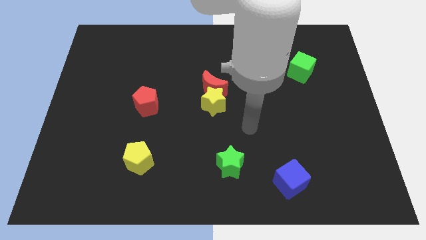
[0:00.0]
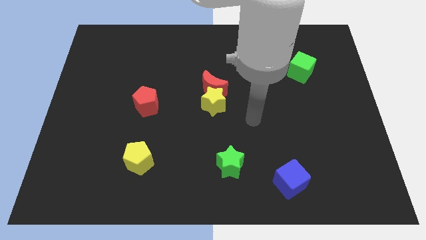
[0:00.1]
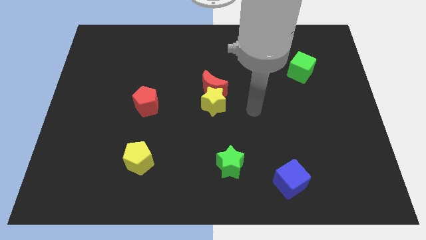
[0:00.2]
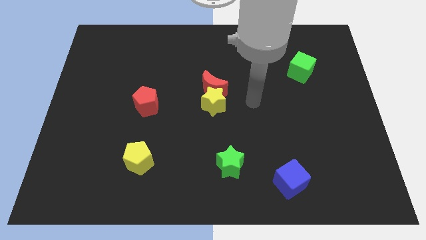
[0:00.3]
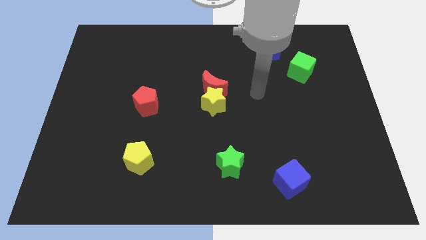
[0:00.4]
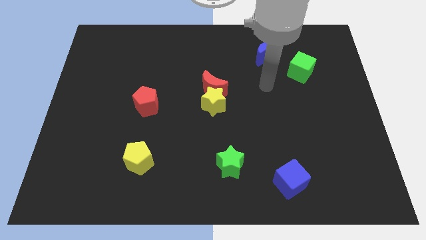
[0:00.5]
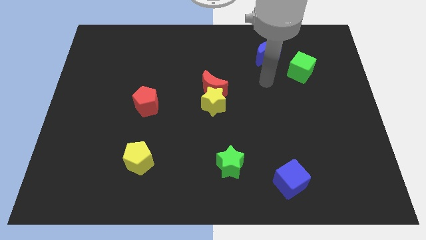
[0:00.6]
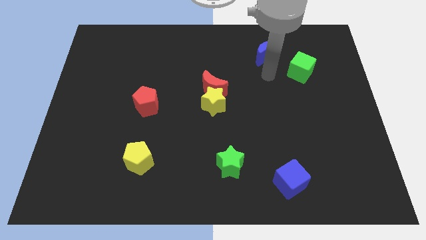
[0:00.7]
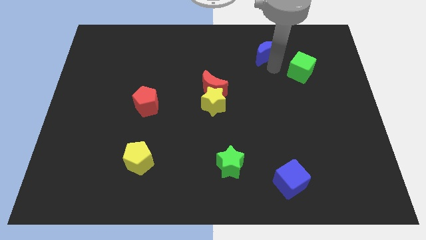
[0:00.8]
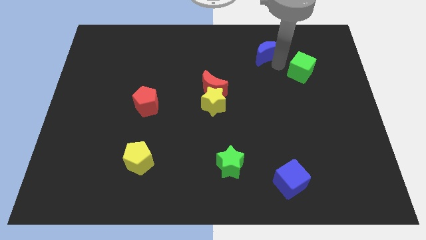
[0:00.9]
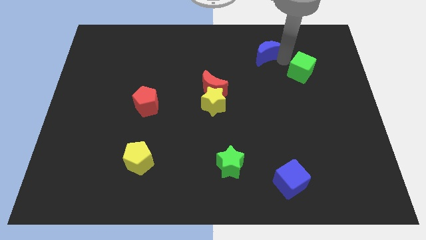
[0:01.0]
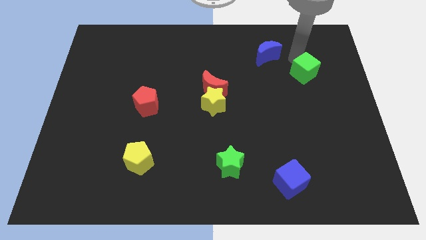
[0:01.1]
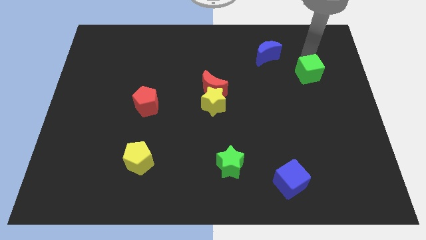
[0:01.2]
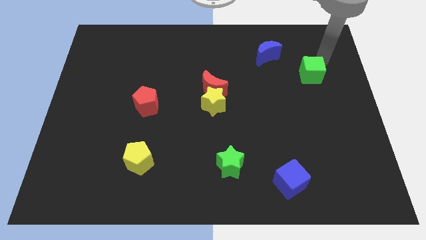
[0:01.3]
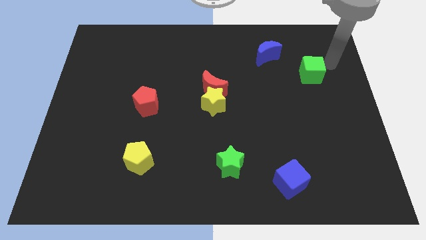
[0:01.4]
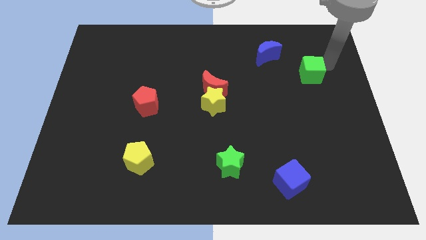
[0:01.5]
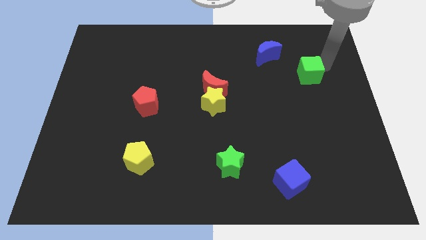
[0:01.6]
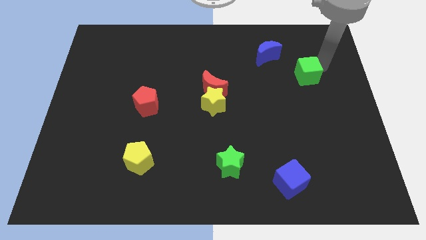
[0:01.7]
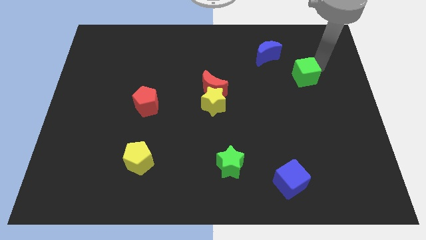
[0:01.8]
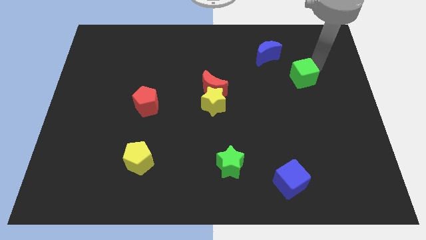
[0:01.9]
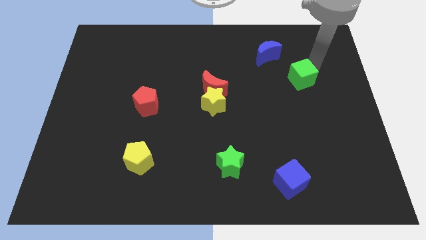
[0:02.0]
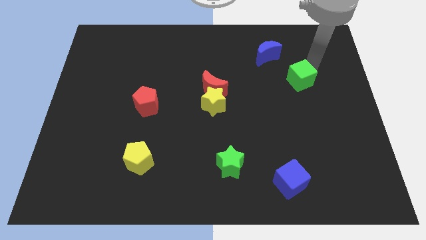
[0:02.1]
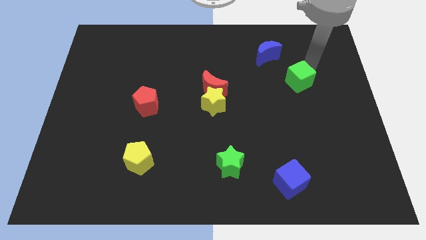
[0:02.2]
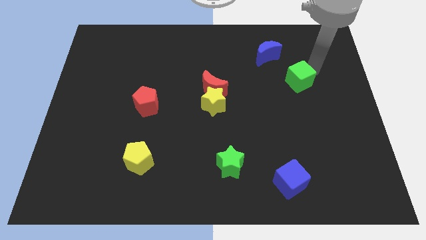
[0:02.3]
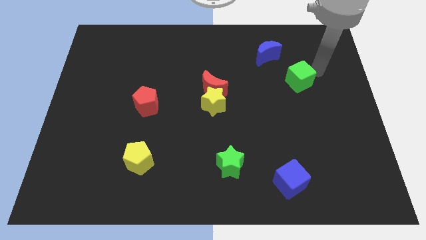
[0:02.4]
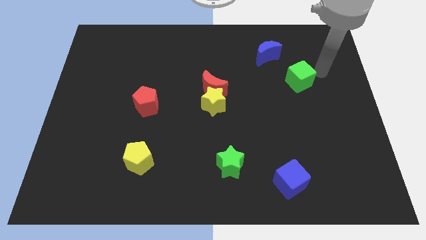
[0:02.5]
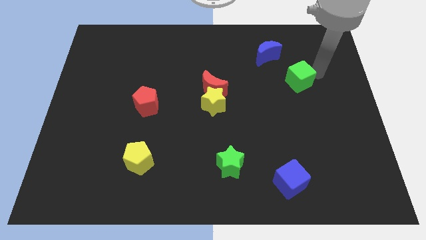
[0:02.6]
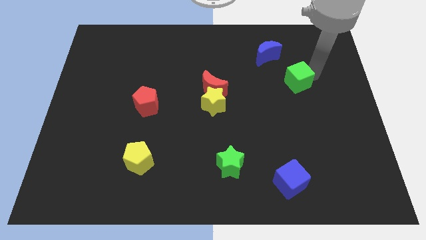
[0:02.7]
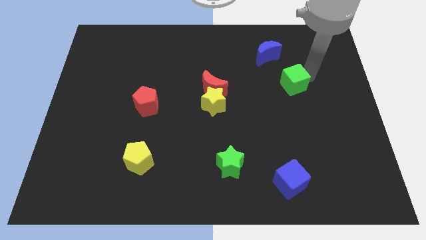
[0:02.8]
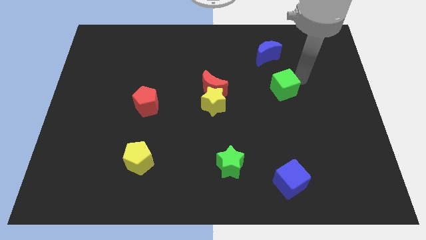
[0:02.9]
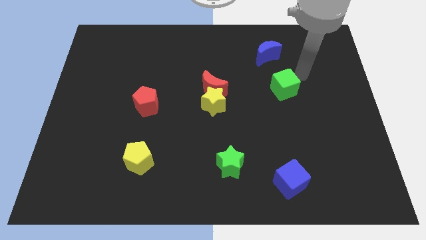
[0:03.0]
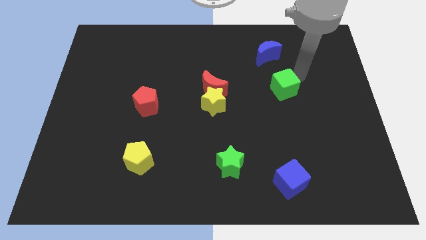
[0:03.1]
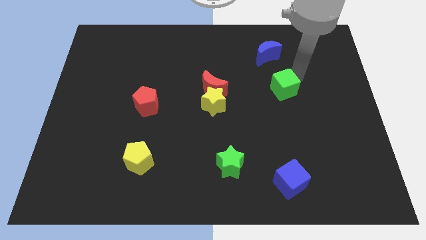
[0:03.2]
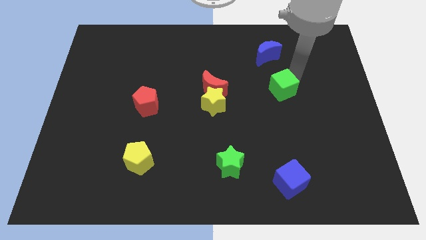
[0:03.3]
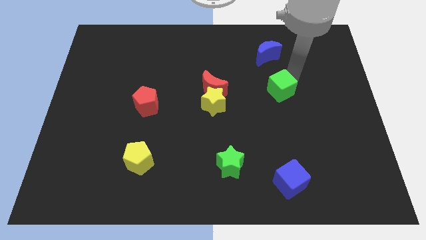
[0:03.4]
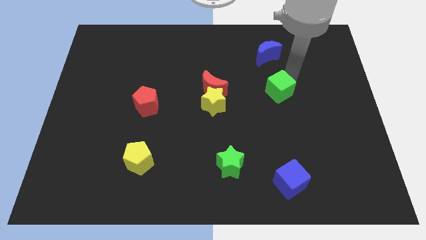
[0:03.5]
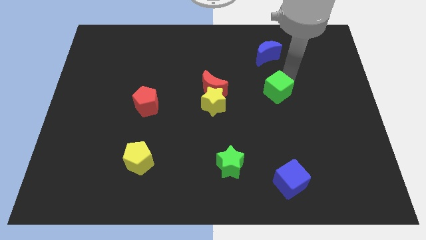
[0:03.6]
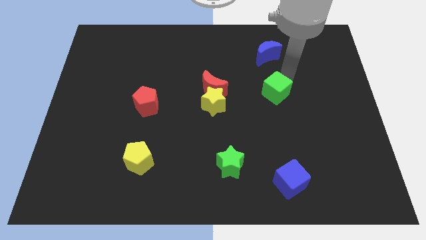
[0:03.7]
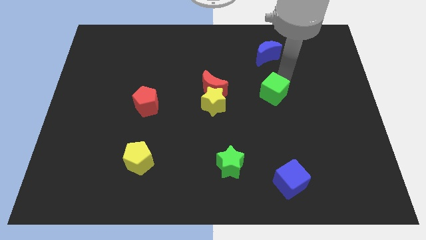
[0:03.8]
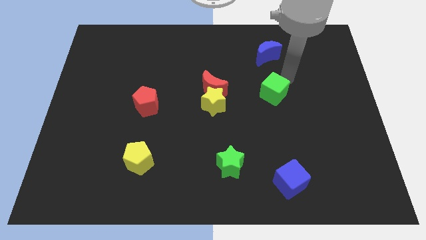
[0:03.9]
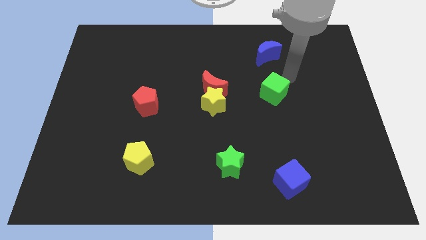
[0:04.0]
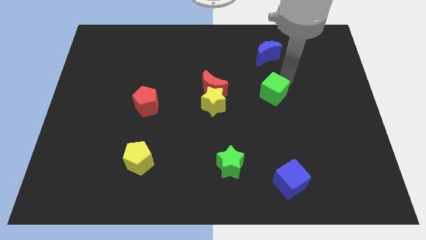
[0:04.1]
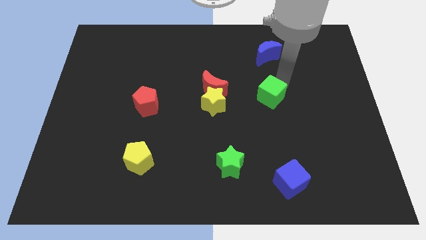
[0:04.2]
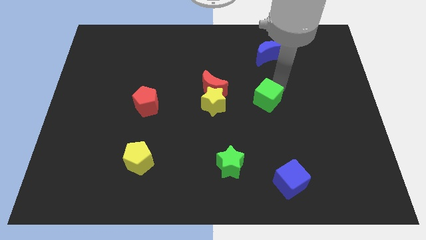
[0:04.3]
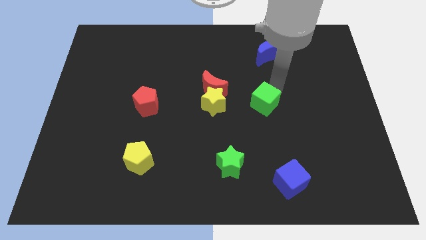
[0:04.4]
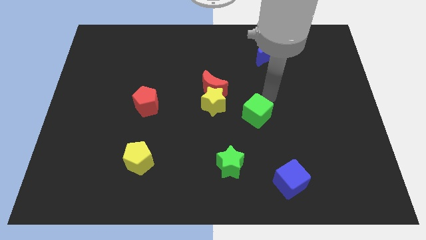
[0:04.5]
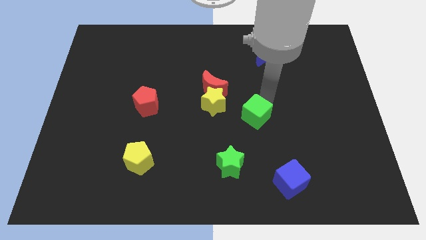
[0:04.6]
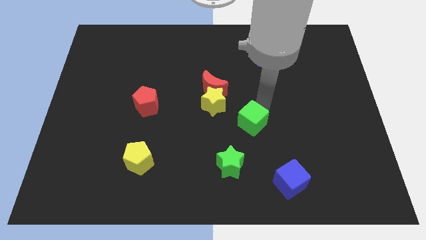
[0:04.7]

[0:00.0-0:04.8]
push the green cube downwards and then to the left

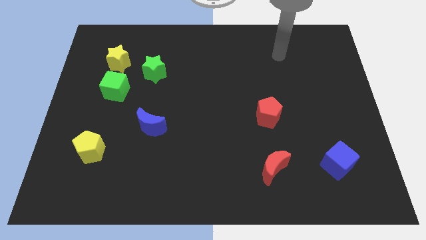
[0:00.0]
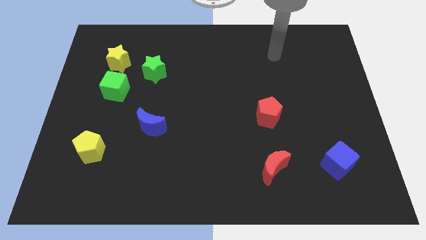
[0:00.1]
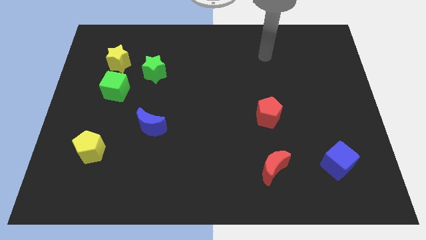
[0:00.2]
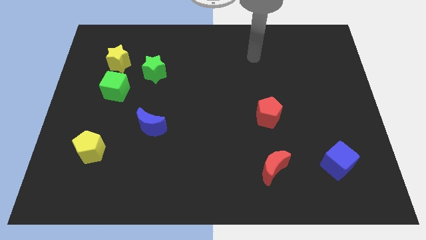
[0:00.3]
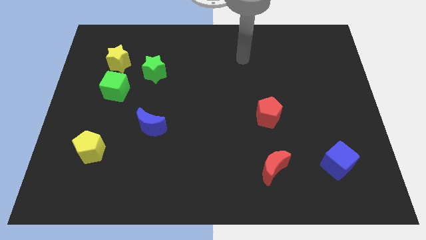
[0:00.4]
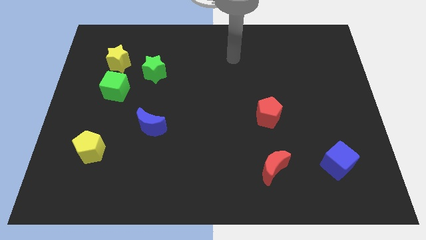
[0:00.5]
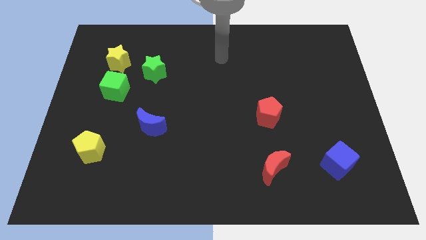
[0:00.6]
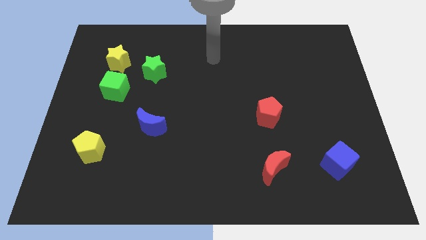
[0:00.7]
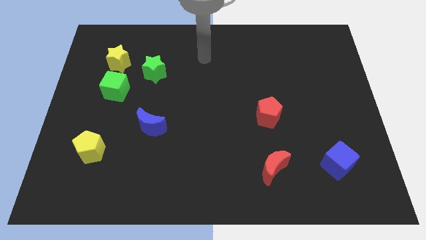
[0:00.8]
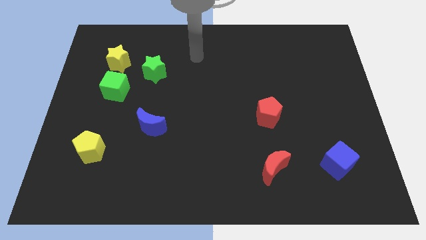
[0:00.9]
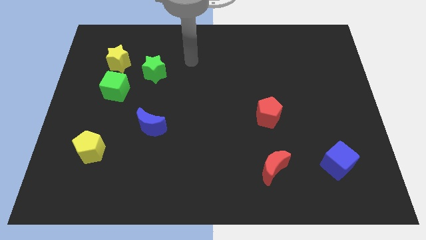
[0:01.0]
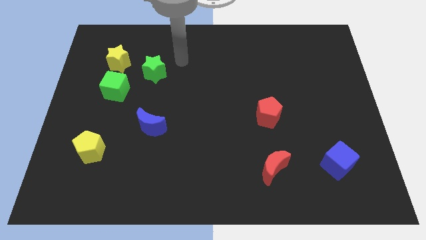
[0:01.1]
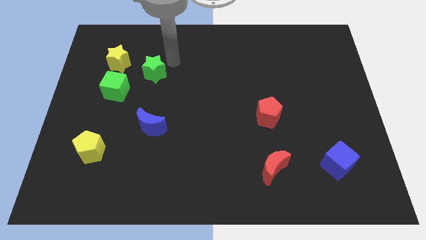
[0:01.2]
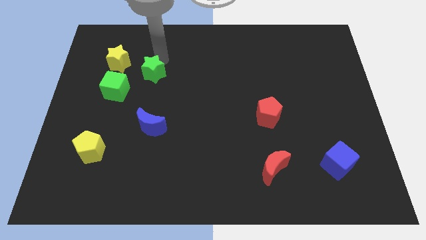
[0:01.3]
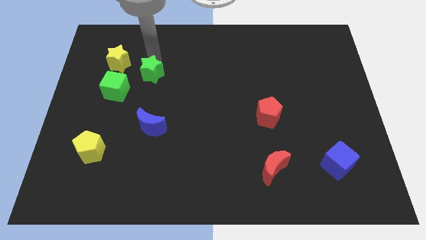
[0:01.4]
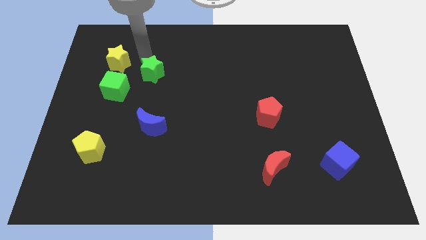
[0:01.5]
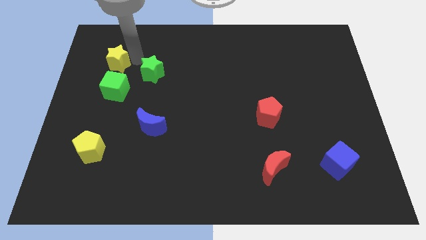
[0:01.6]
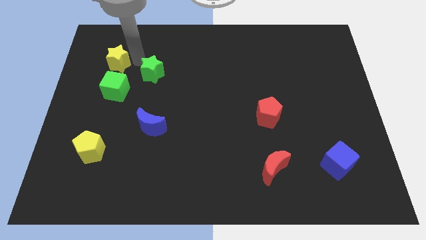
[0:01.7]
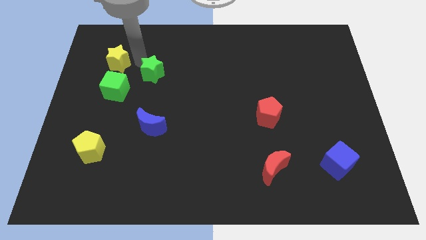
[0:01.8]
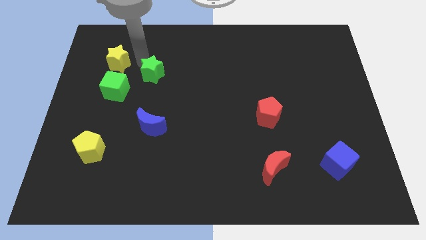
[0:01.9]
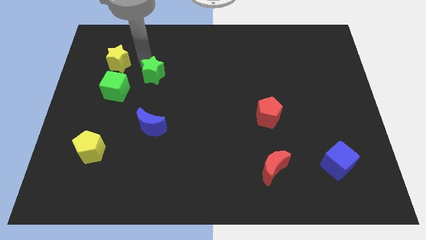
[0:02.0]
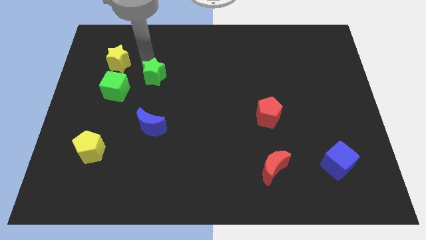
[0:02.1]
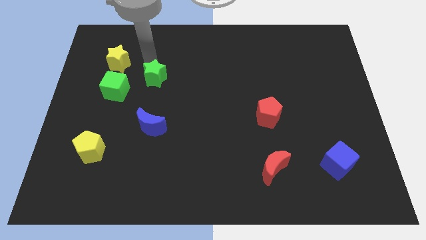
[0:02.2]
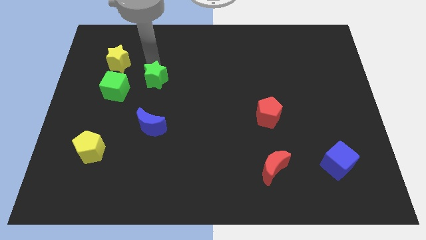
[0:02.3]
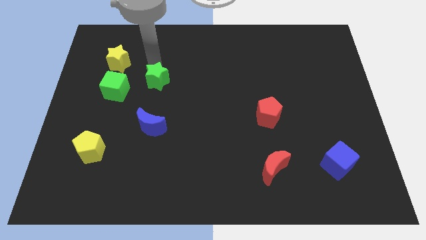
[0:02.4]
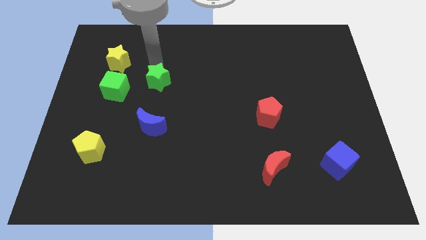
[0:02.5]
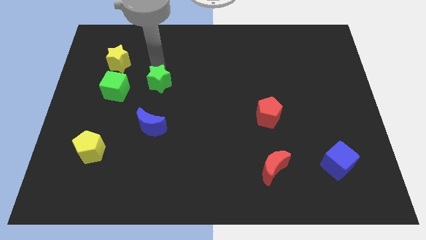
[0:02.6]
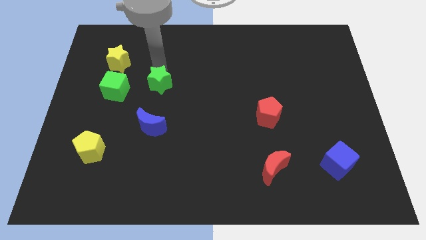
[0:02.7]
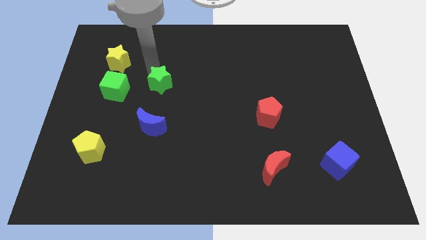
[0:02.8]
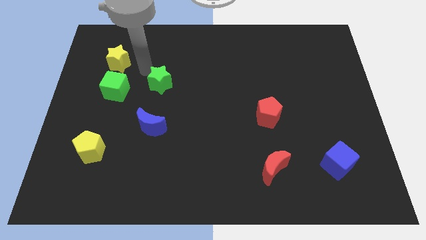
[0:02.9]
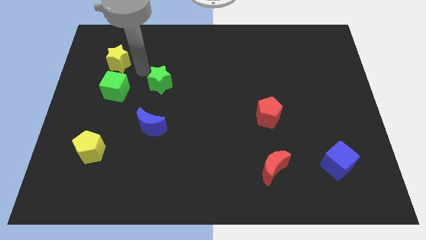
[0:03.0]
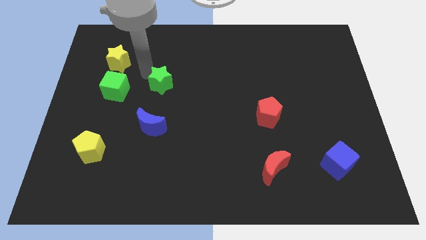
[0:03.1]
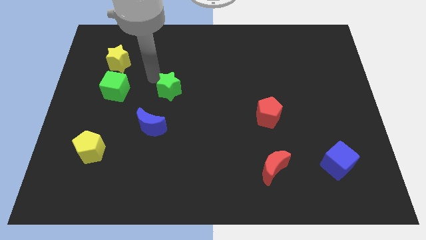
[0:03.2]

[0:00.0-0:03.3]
push the green star down and right a little bit
